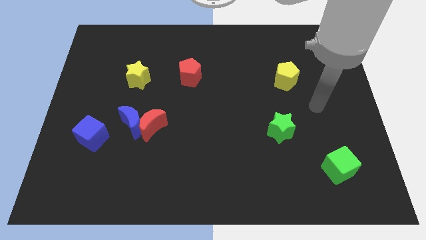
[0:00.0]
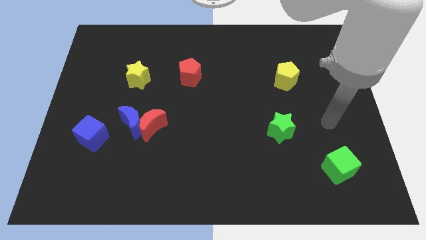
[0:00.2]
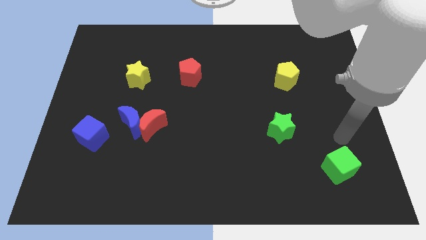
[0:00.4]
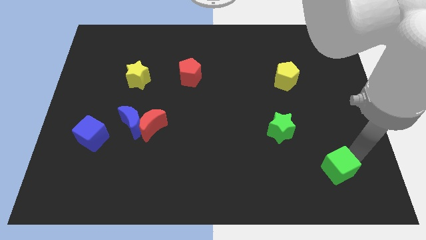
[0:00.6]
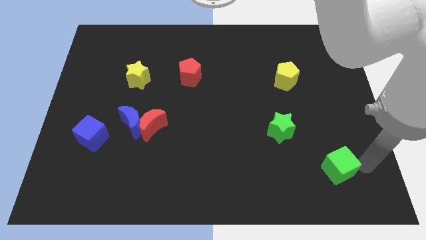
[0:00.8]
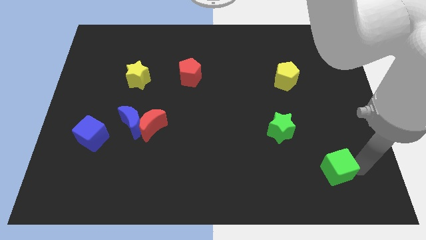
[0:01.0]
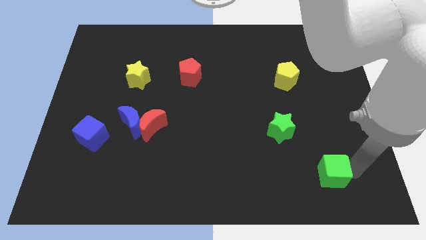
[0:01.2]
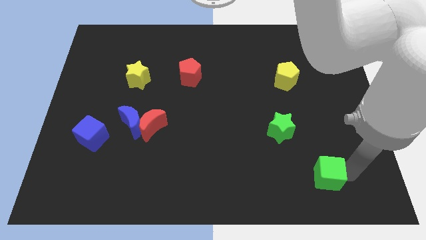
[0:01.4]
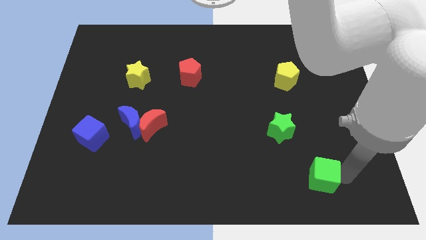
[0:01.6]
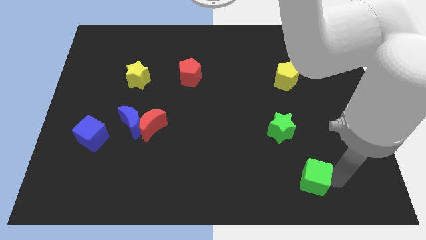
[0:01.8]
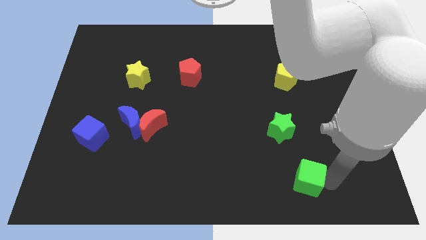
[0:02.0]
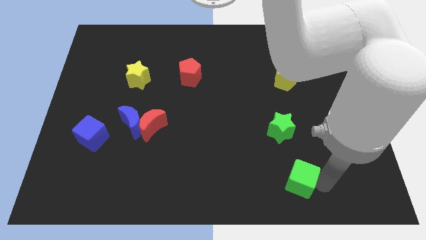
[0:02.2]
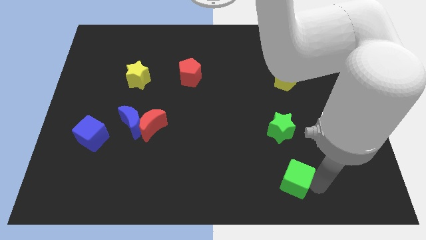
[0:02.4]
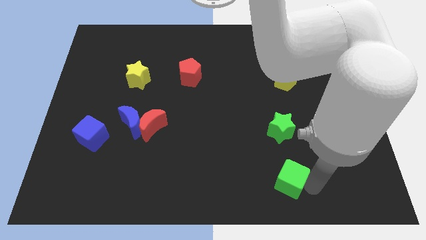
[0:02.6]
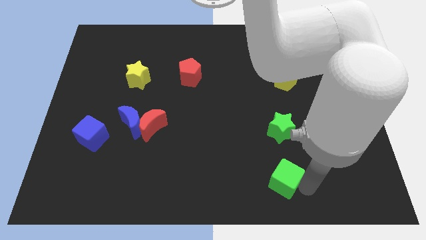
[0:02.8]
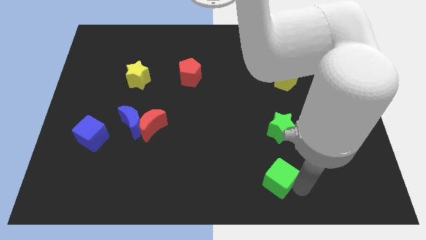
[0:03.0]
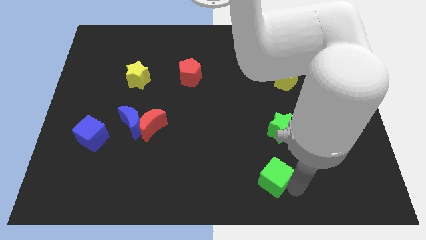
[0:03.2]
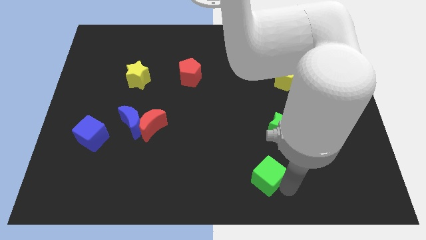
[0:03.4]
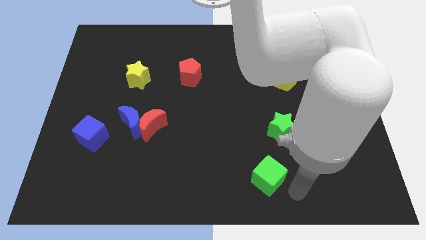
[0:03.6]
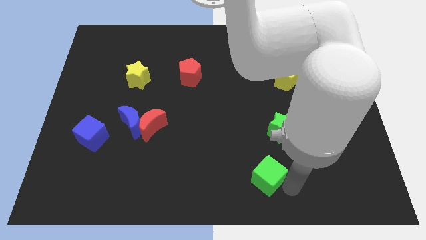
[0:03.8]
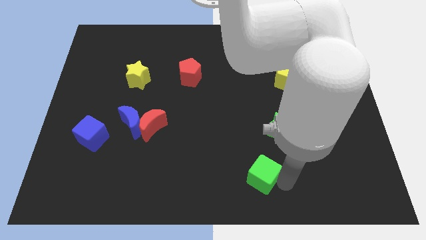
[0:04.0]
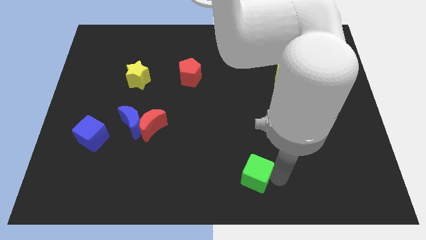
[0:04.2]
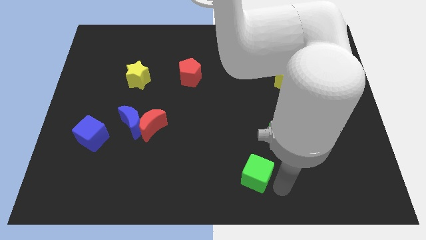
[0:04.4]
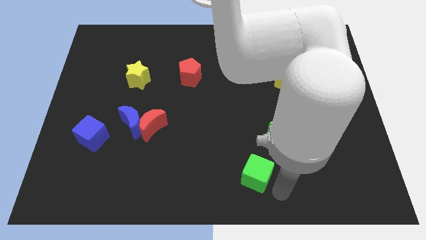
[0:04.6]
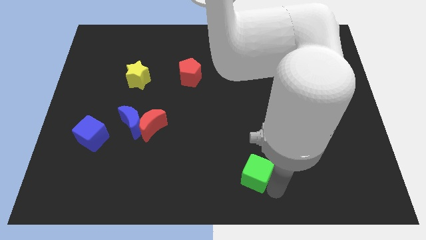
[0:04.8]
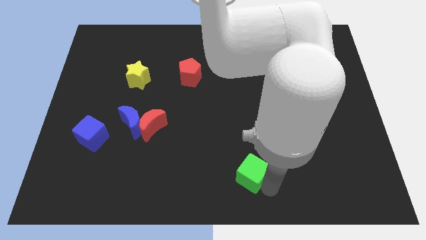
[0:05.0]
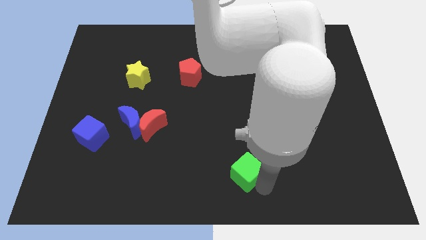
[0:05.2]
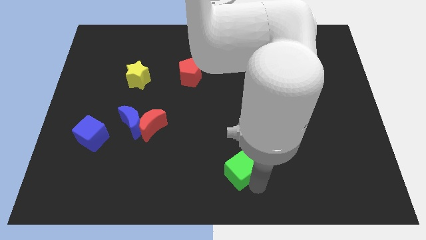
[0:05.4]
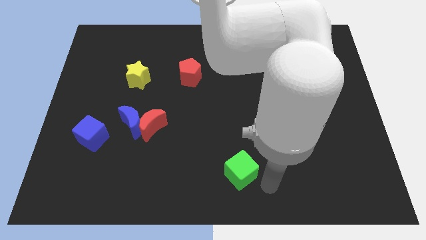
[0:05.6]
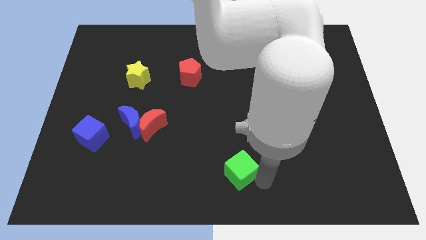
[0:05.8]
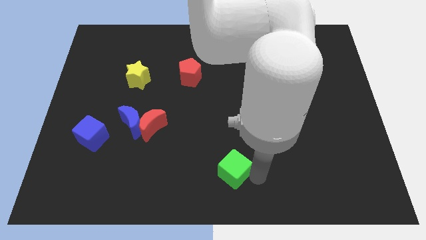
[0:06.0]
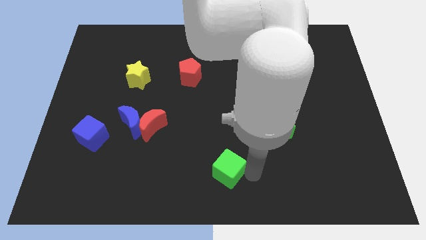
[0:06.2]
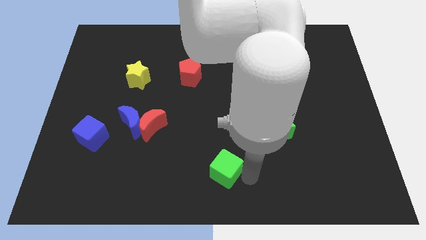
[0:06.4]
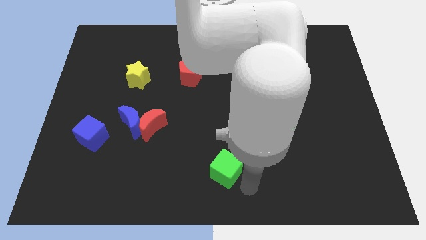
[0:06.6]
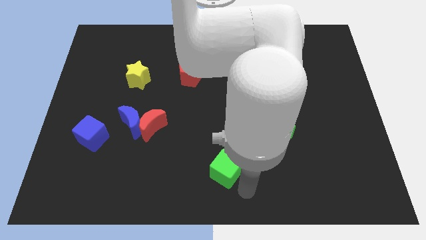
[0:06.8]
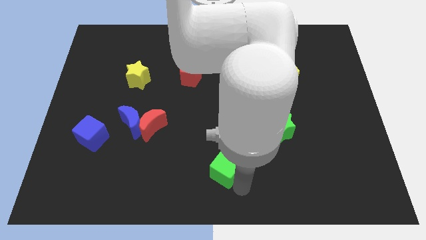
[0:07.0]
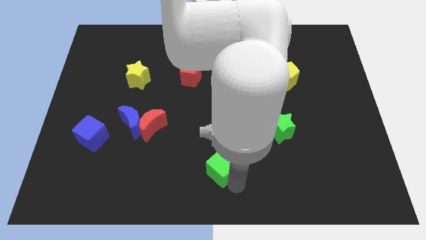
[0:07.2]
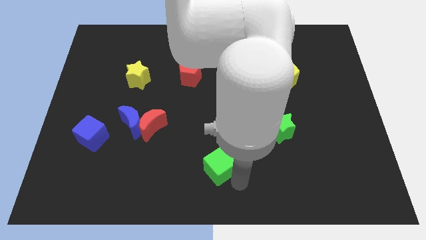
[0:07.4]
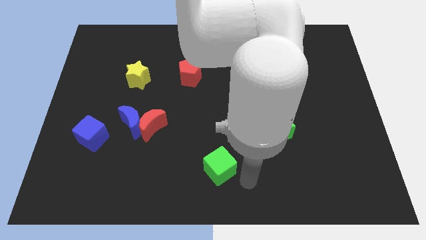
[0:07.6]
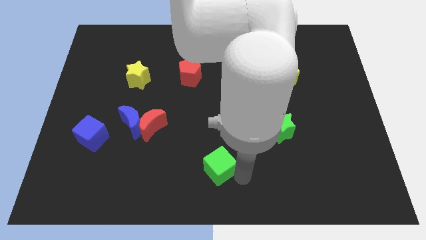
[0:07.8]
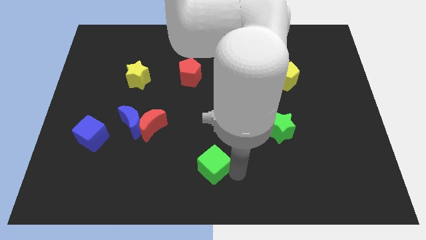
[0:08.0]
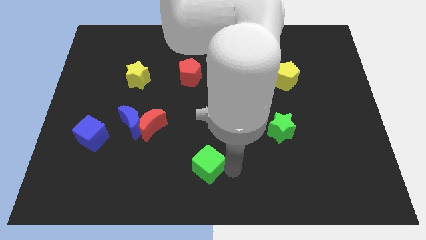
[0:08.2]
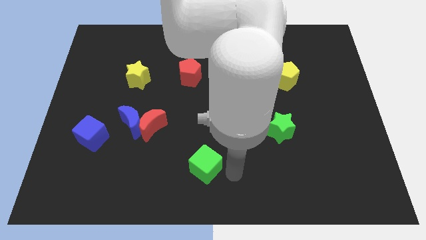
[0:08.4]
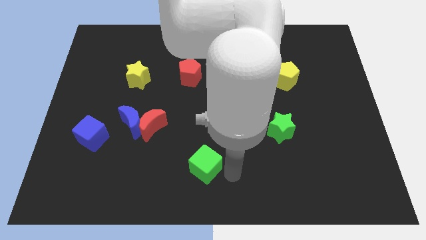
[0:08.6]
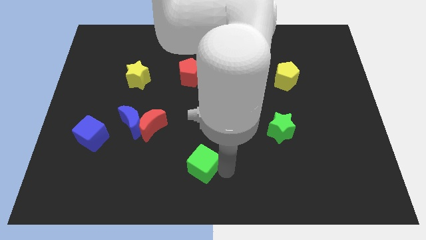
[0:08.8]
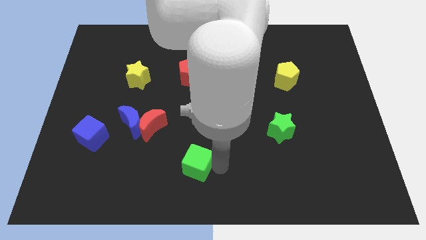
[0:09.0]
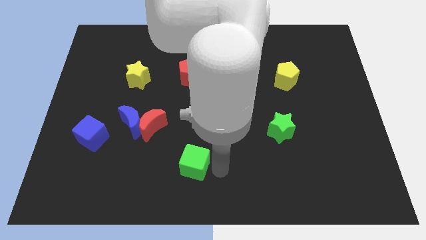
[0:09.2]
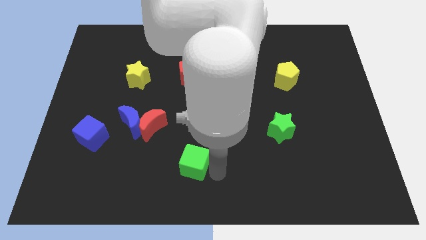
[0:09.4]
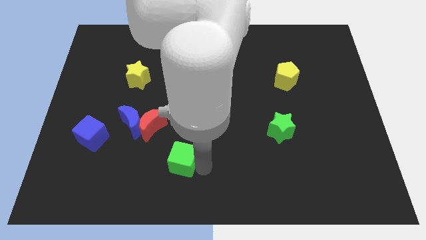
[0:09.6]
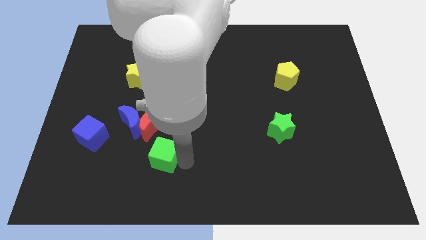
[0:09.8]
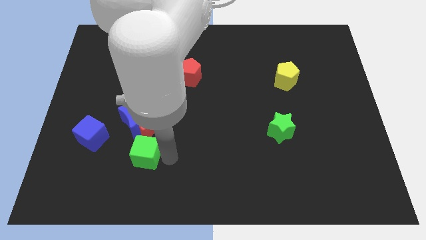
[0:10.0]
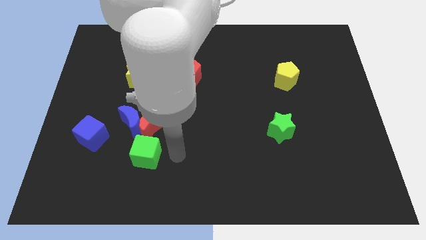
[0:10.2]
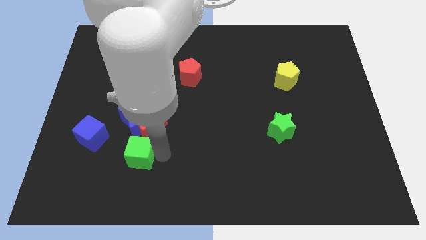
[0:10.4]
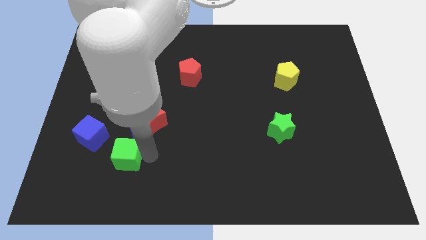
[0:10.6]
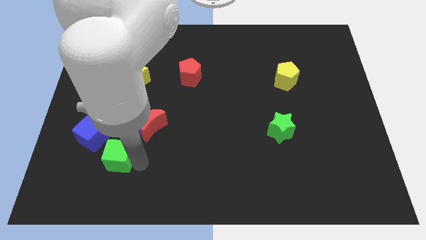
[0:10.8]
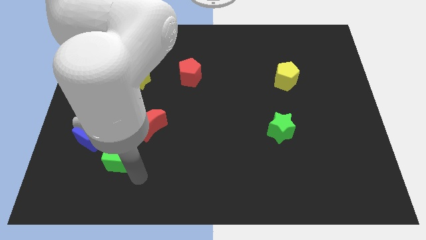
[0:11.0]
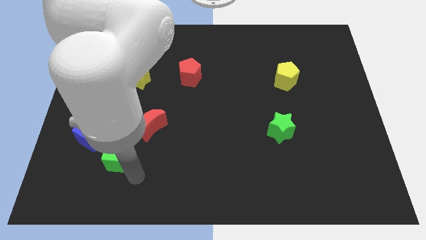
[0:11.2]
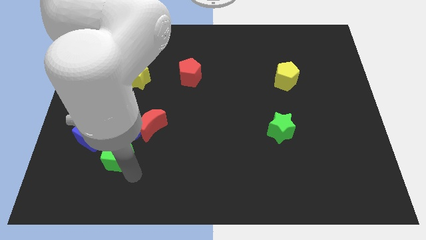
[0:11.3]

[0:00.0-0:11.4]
slide the green cube diagonally down and to the left of the blue moon
